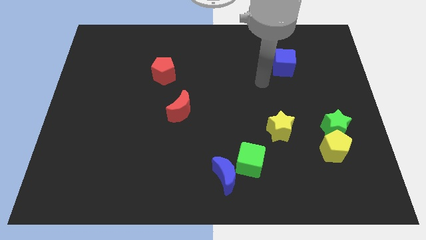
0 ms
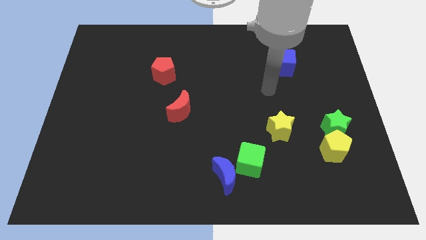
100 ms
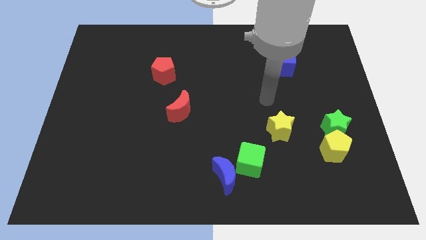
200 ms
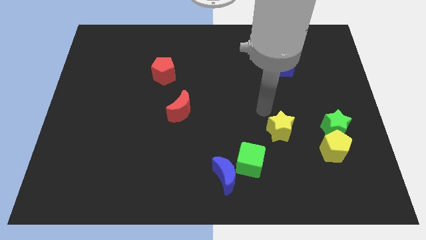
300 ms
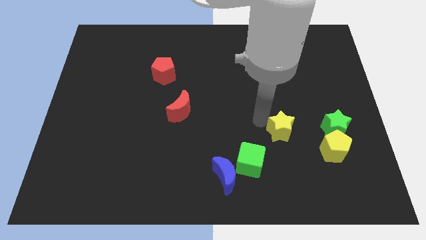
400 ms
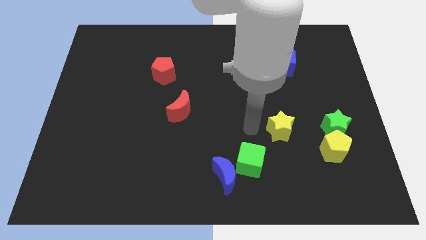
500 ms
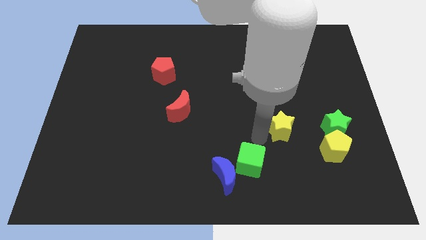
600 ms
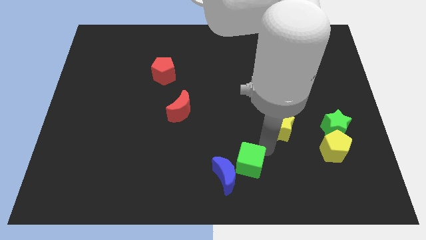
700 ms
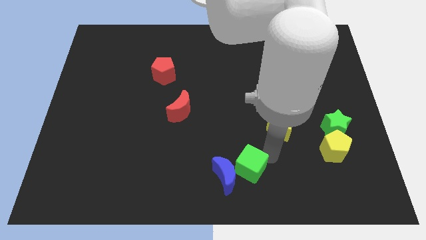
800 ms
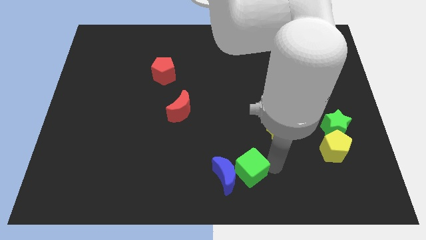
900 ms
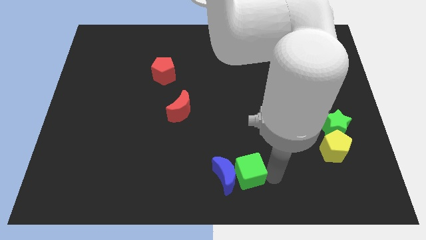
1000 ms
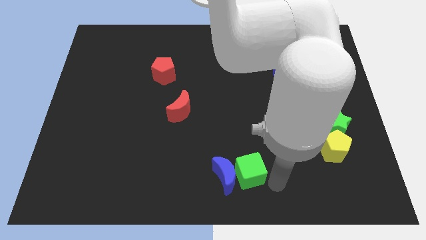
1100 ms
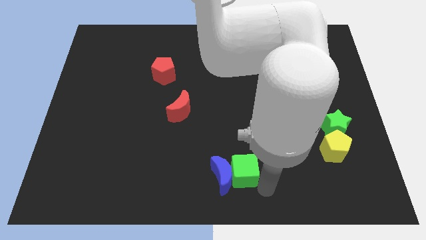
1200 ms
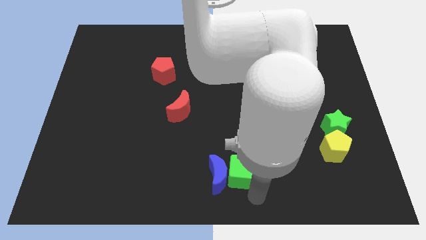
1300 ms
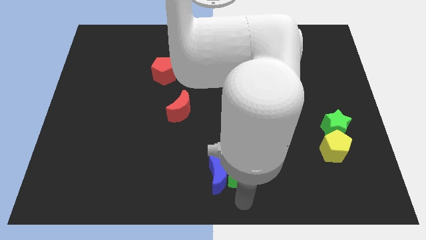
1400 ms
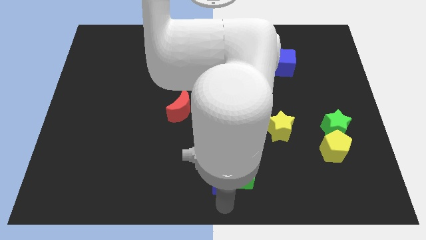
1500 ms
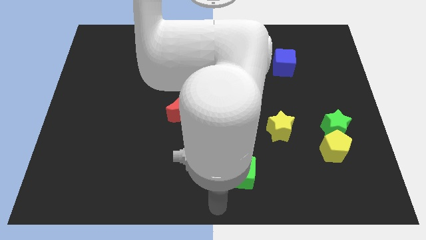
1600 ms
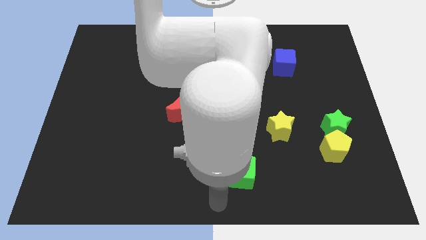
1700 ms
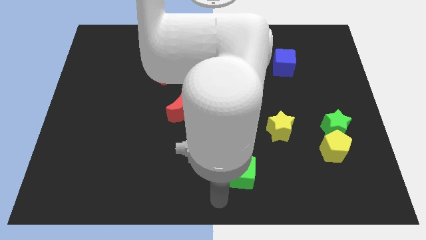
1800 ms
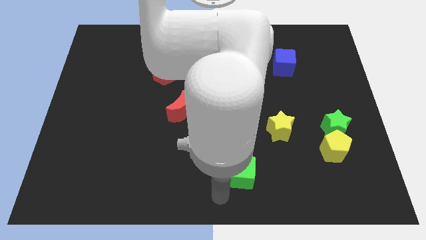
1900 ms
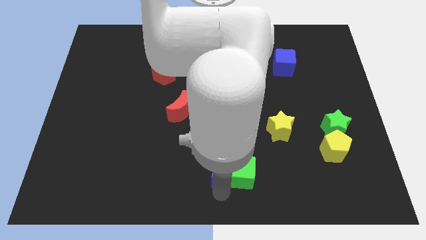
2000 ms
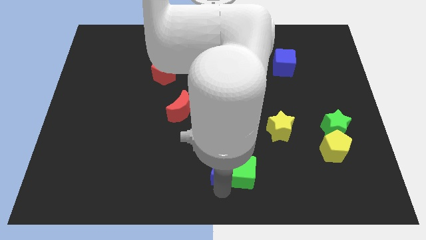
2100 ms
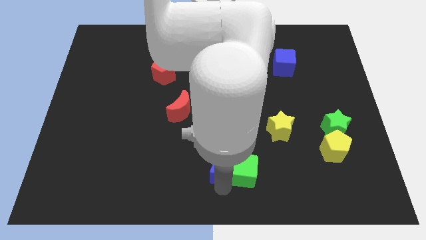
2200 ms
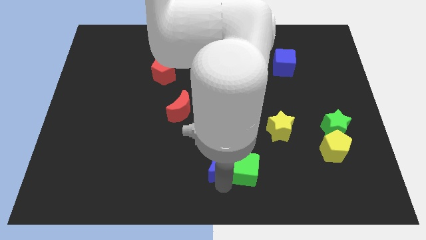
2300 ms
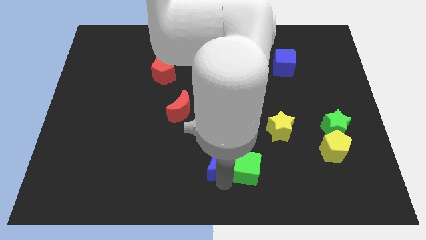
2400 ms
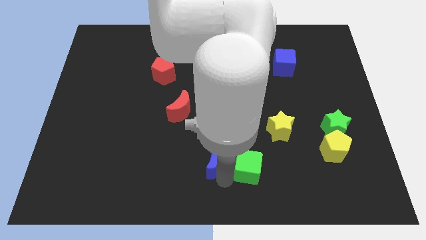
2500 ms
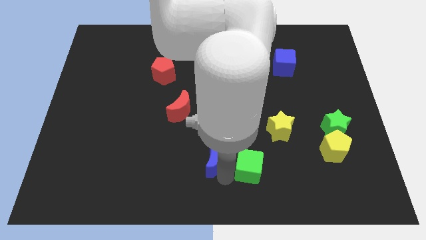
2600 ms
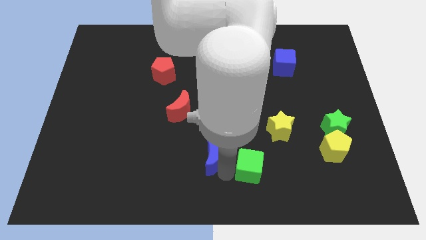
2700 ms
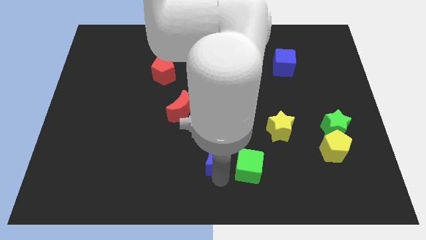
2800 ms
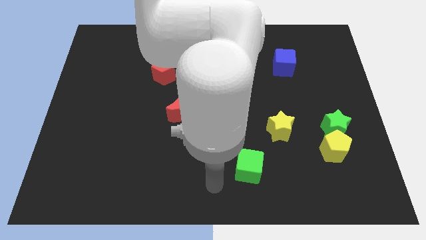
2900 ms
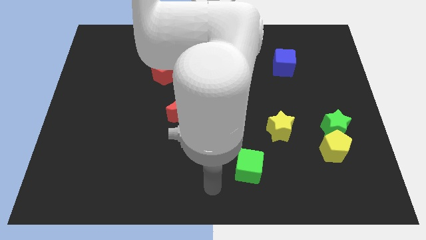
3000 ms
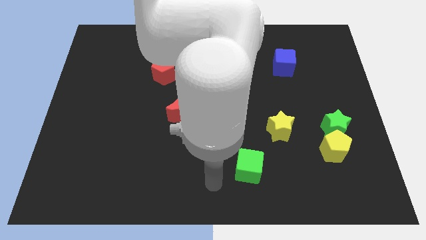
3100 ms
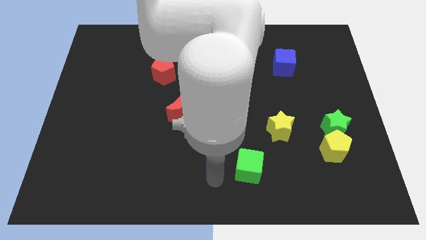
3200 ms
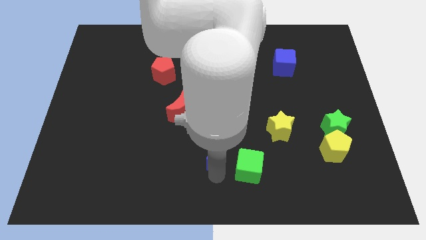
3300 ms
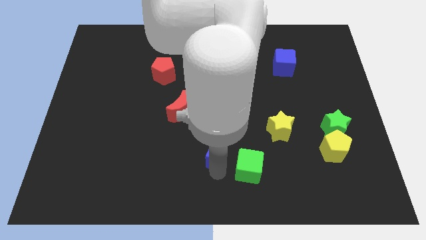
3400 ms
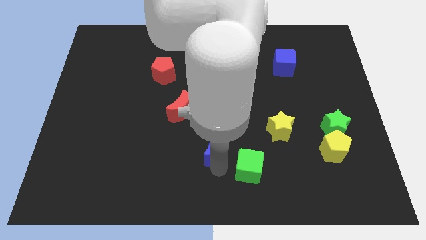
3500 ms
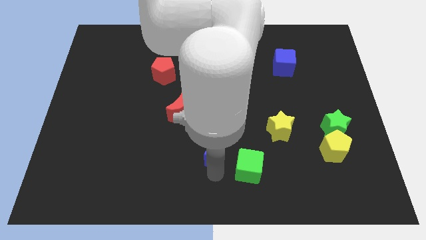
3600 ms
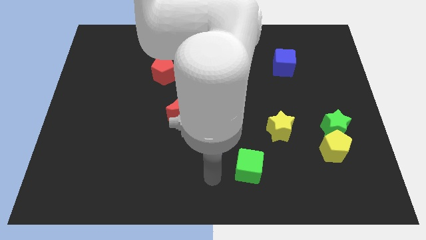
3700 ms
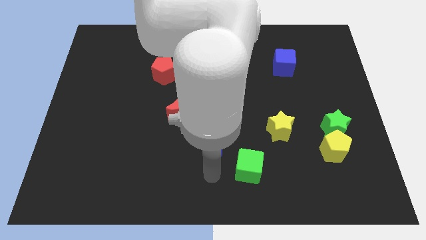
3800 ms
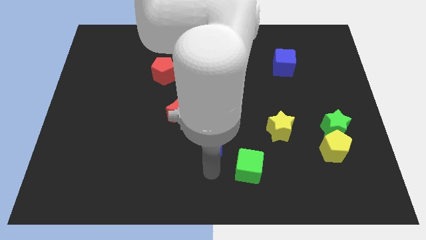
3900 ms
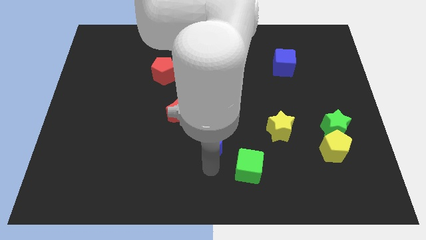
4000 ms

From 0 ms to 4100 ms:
slightly push the blue moon up

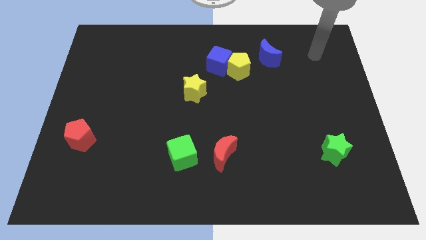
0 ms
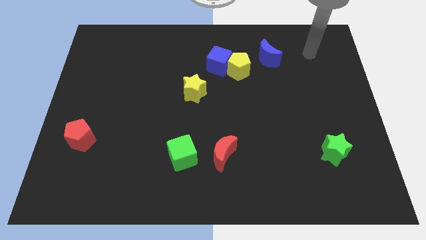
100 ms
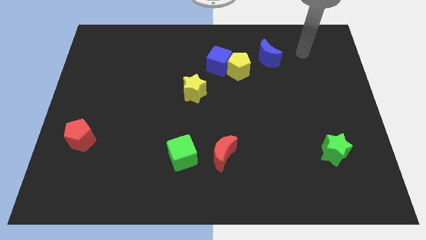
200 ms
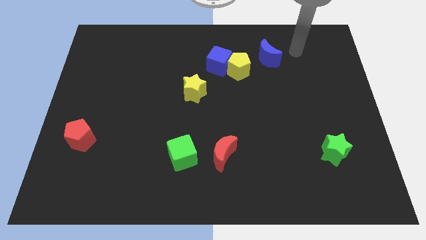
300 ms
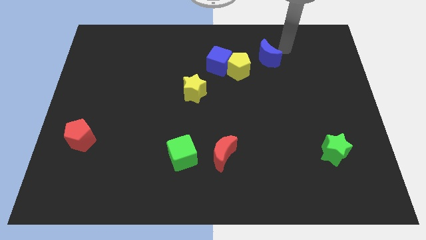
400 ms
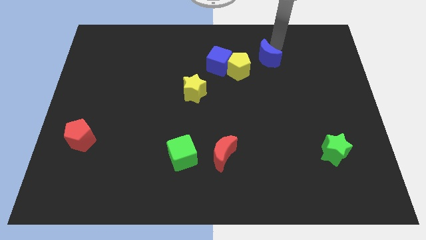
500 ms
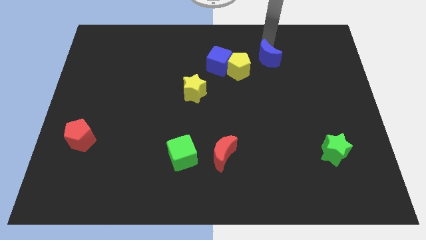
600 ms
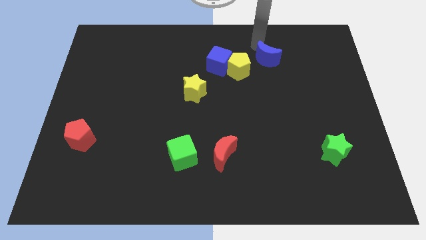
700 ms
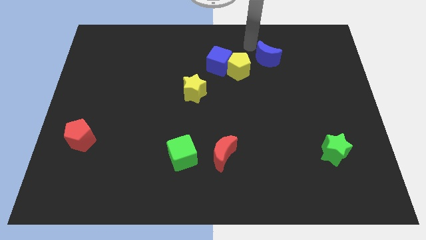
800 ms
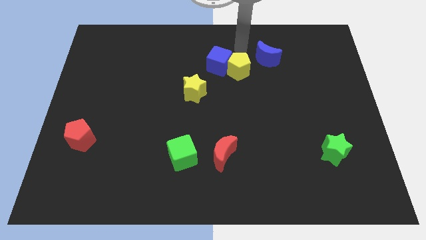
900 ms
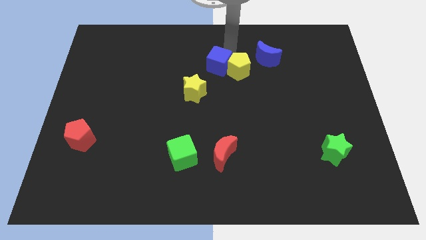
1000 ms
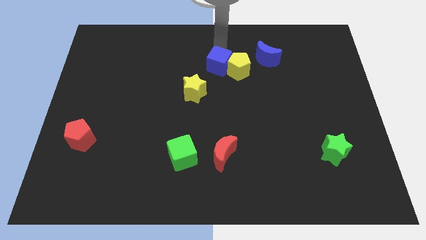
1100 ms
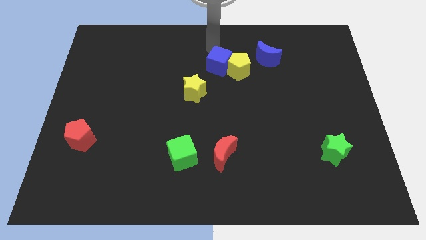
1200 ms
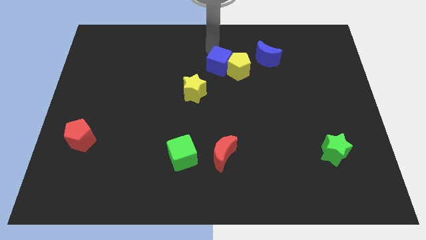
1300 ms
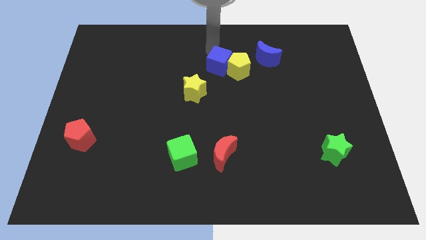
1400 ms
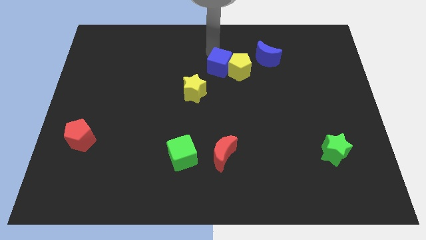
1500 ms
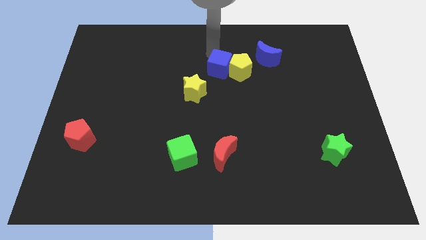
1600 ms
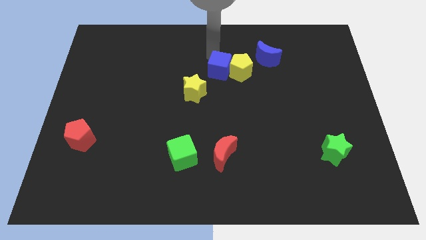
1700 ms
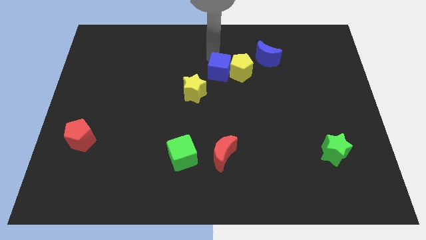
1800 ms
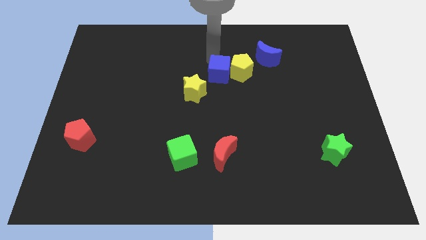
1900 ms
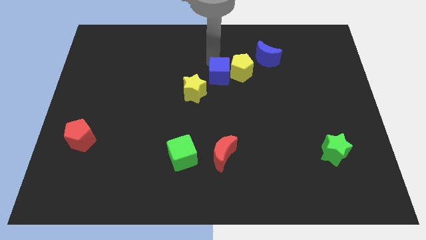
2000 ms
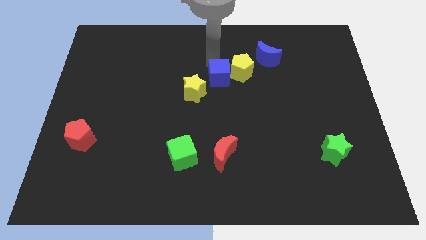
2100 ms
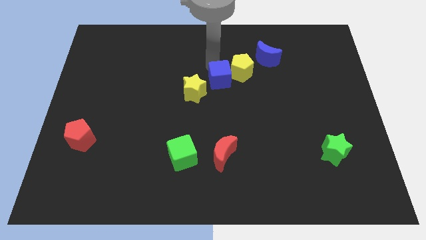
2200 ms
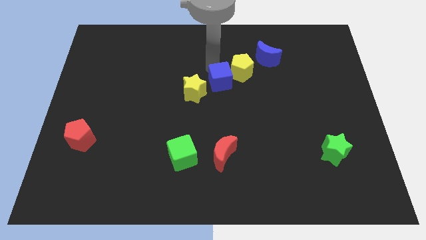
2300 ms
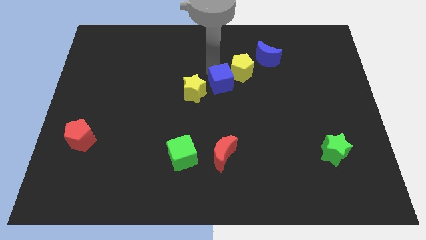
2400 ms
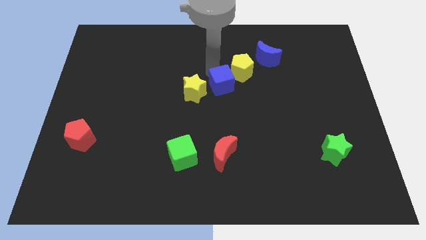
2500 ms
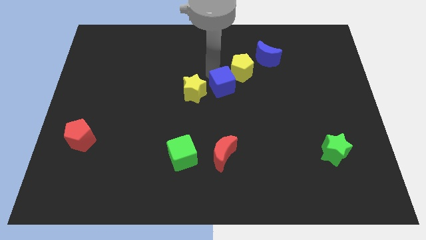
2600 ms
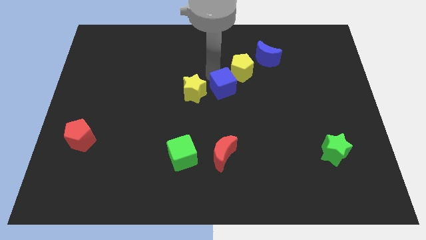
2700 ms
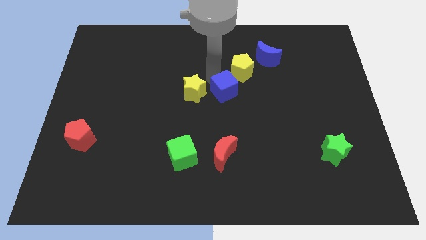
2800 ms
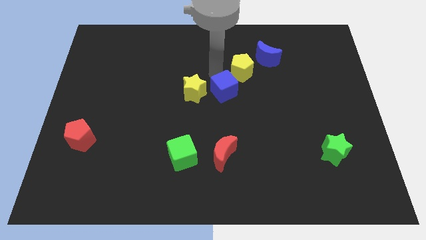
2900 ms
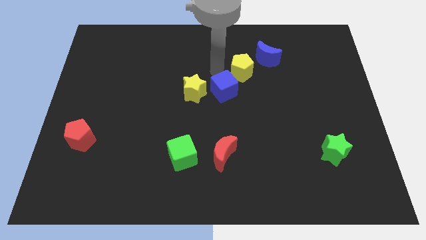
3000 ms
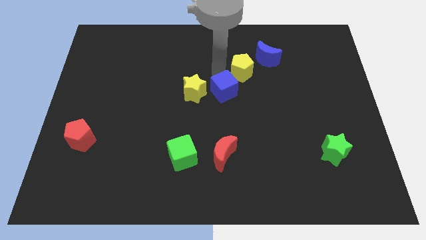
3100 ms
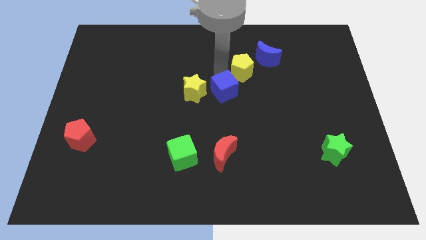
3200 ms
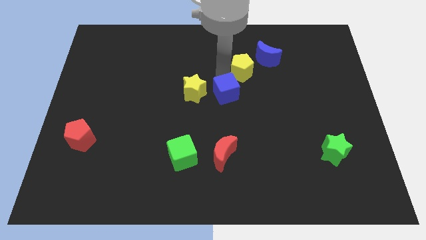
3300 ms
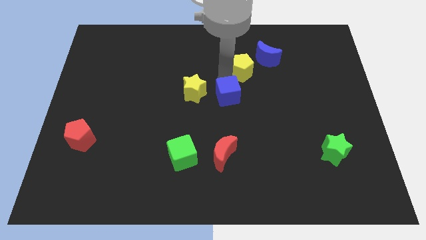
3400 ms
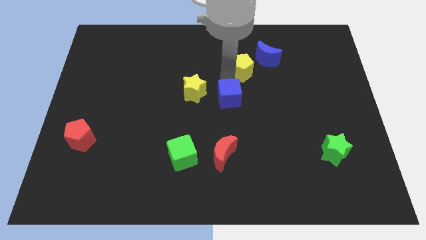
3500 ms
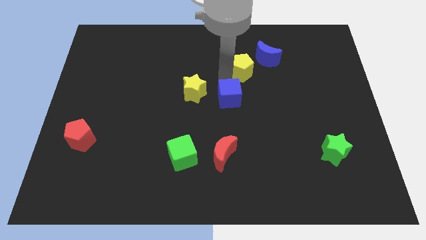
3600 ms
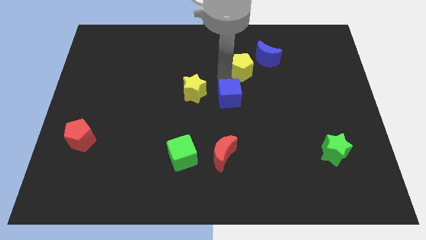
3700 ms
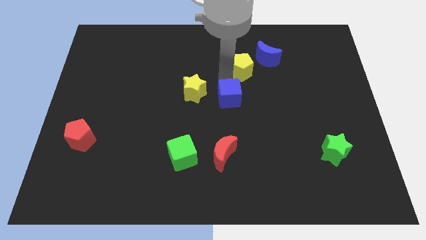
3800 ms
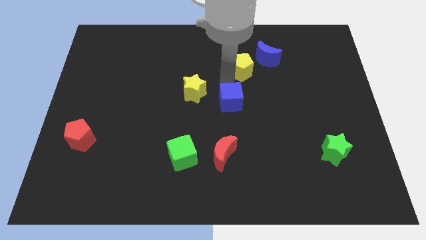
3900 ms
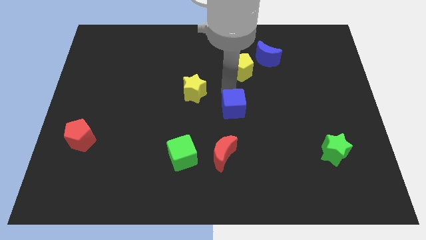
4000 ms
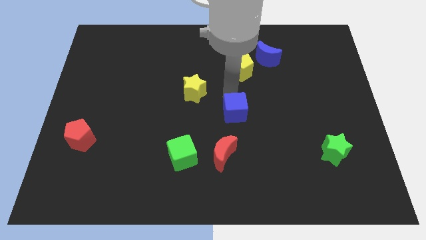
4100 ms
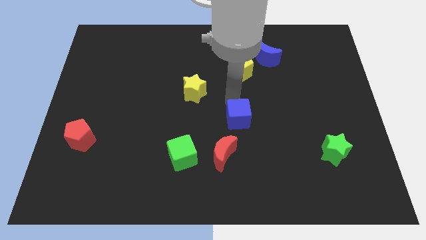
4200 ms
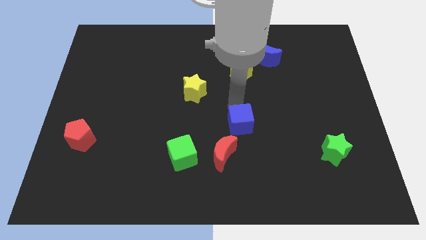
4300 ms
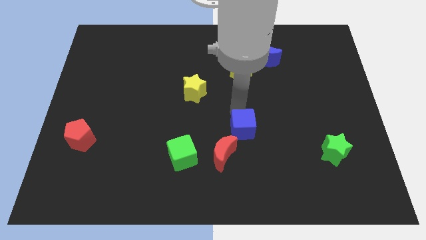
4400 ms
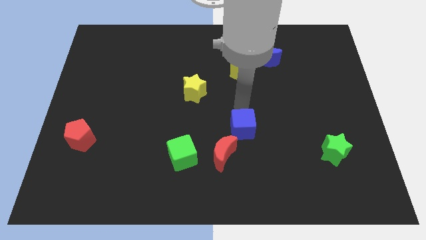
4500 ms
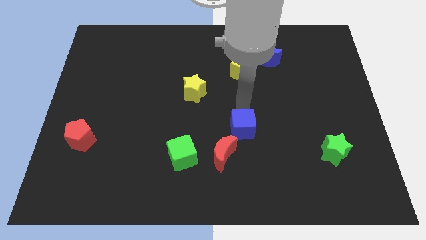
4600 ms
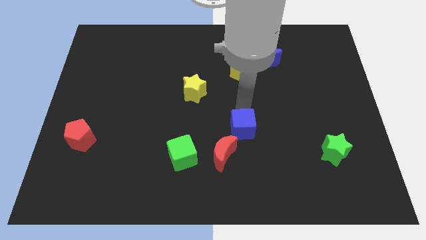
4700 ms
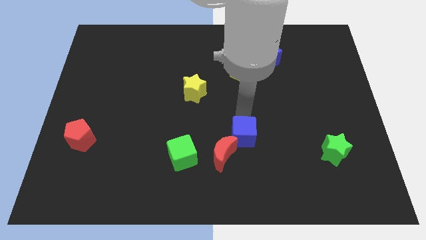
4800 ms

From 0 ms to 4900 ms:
move the blue cube down
